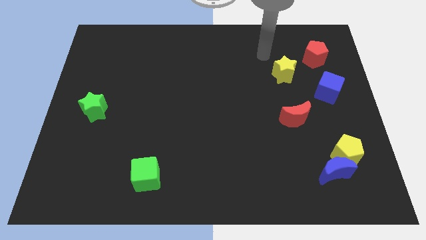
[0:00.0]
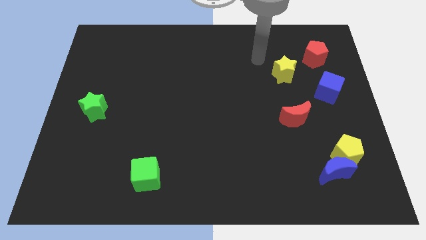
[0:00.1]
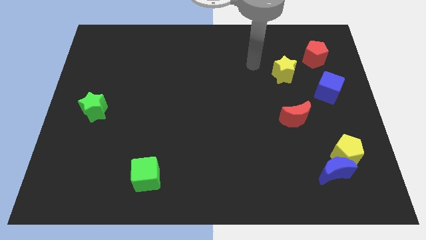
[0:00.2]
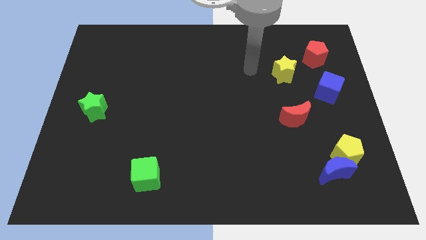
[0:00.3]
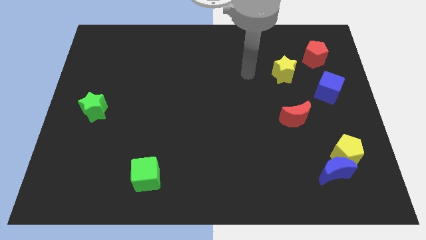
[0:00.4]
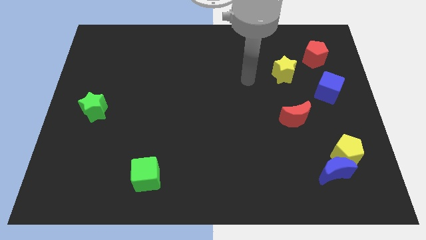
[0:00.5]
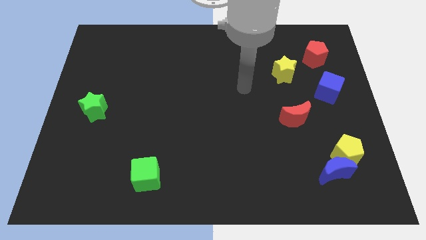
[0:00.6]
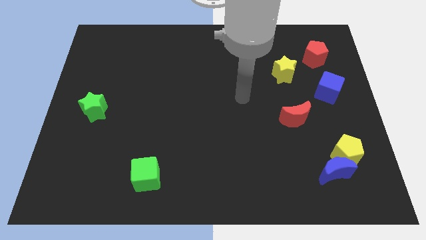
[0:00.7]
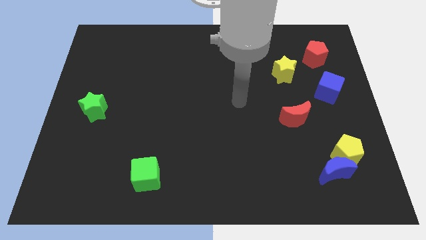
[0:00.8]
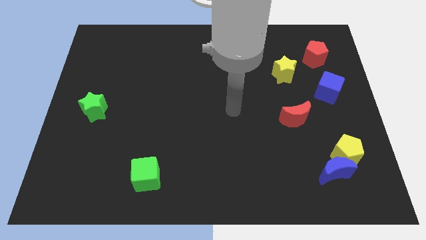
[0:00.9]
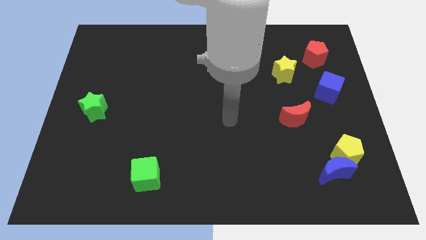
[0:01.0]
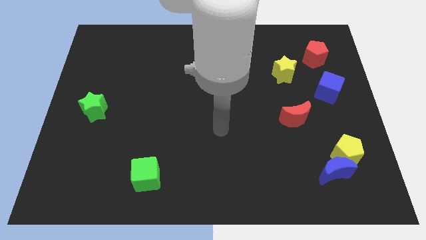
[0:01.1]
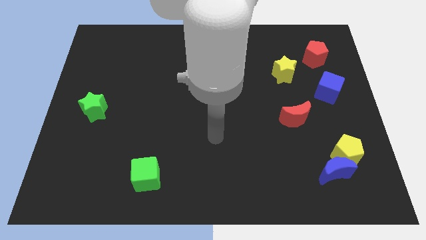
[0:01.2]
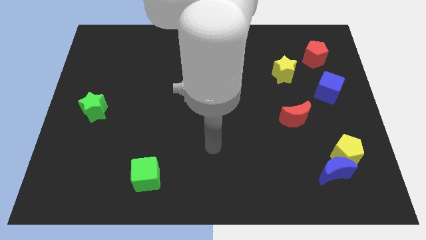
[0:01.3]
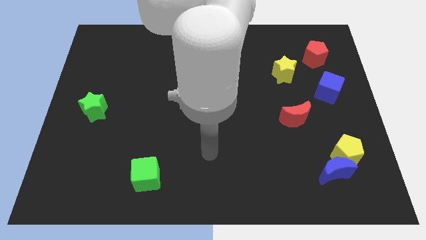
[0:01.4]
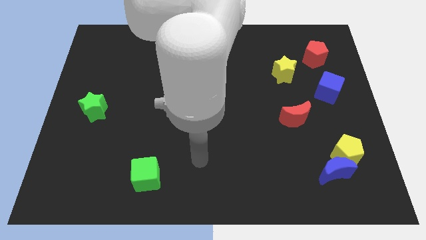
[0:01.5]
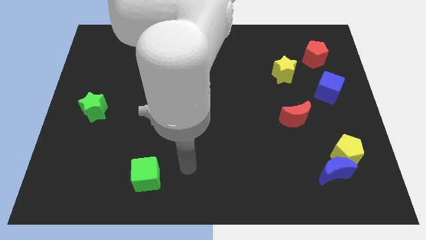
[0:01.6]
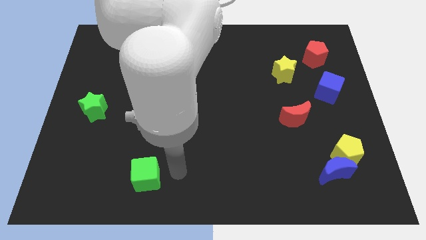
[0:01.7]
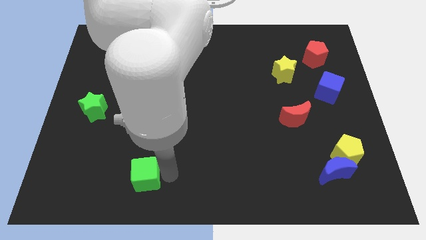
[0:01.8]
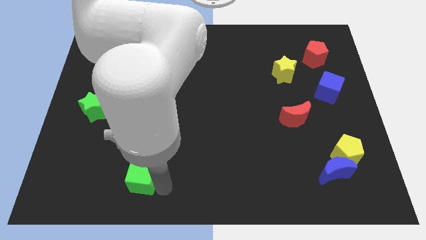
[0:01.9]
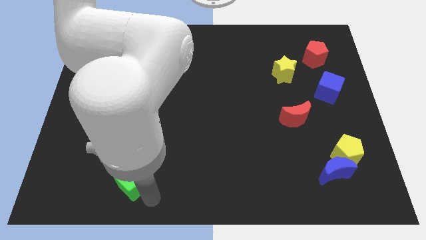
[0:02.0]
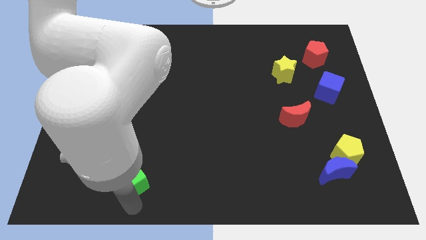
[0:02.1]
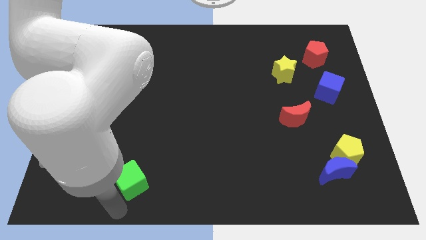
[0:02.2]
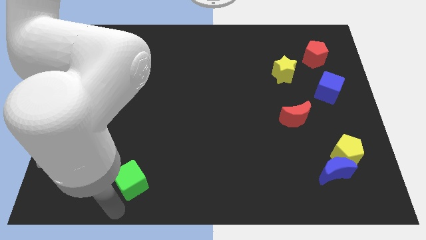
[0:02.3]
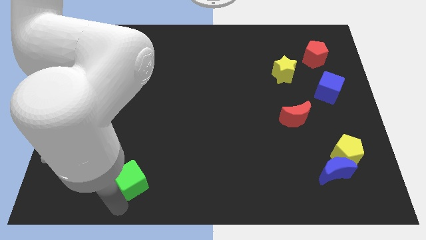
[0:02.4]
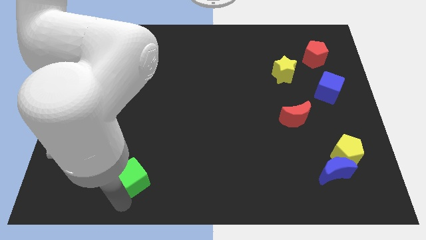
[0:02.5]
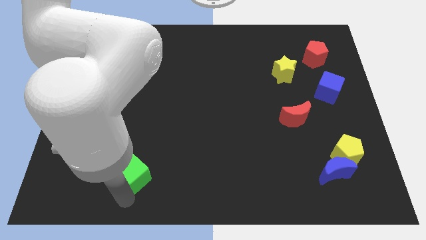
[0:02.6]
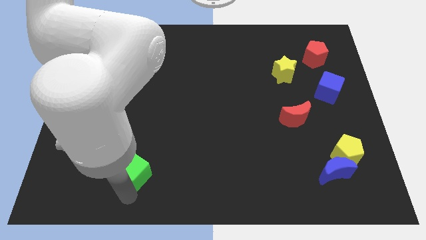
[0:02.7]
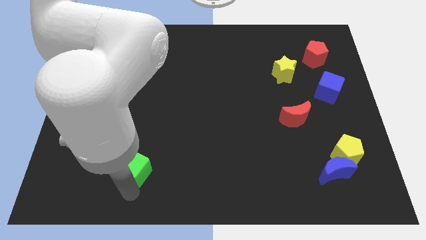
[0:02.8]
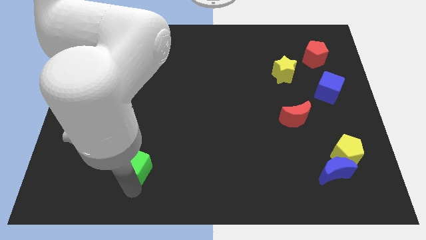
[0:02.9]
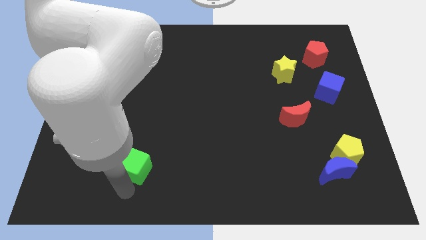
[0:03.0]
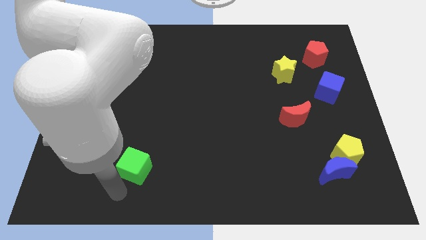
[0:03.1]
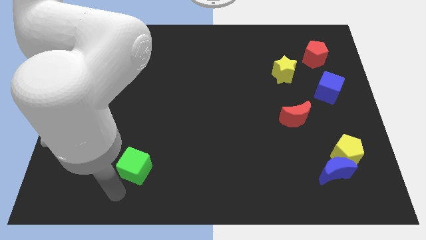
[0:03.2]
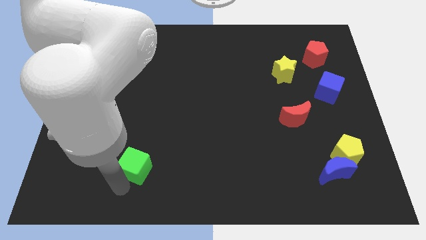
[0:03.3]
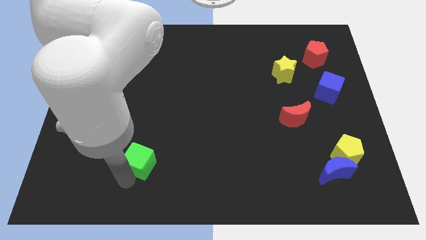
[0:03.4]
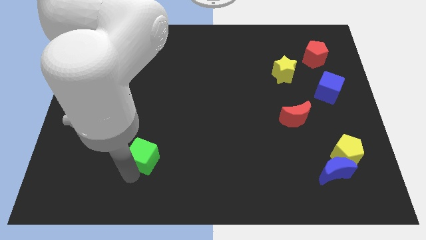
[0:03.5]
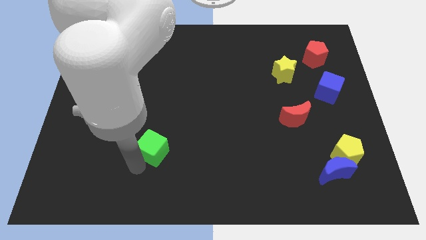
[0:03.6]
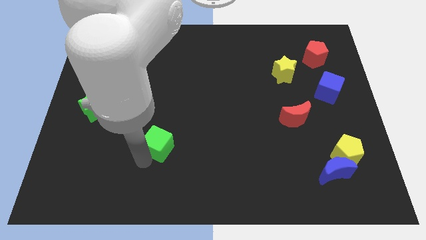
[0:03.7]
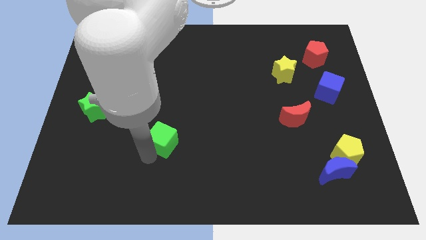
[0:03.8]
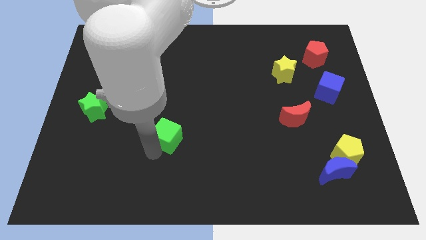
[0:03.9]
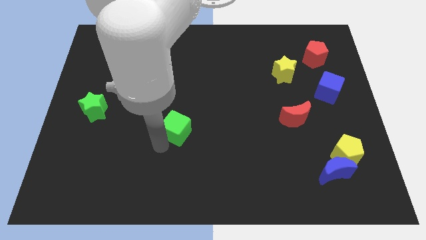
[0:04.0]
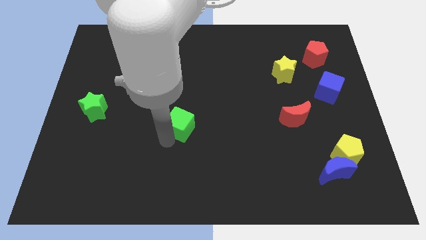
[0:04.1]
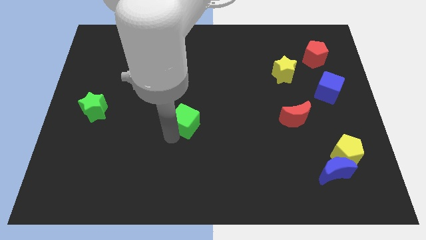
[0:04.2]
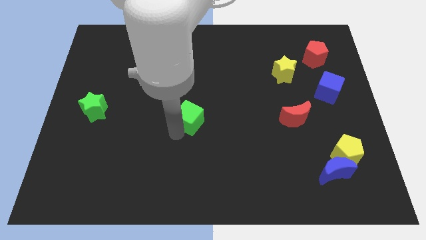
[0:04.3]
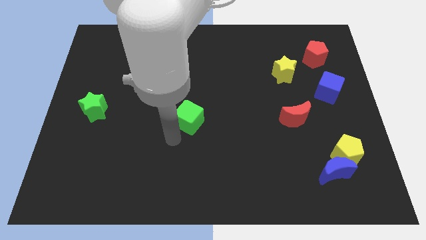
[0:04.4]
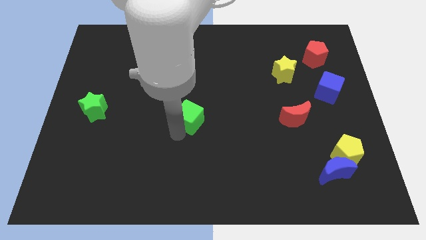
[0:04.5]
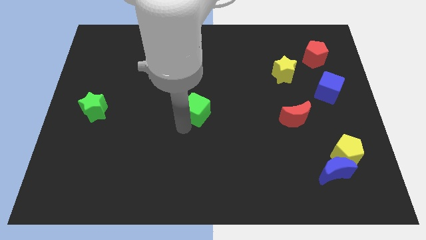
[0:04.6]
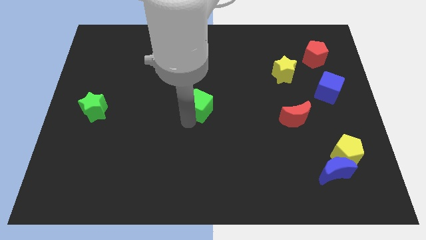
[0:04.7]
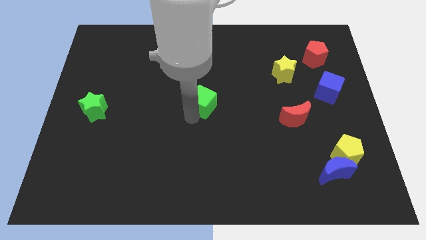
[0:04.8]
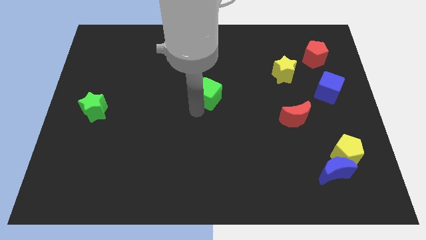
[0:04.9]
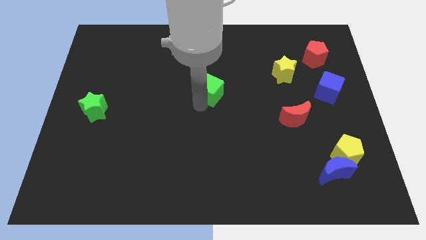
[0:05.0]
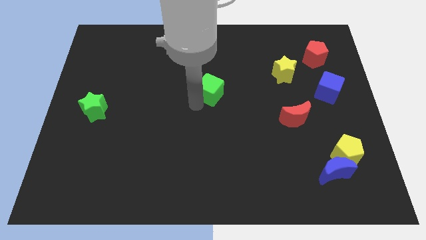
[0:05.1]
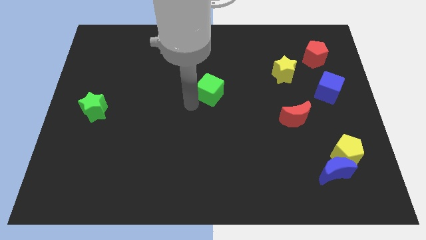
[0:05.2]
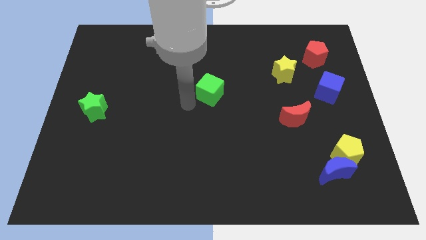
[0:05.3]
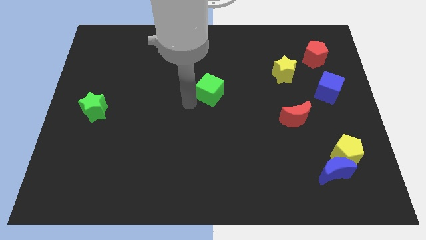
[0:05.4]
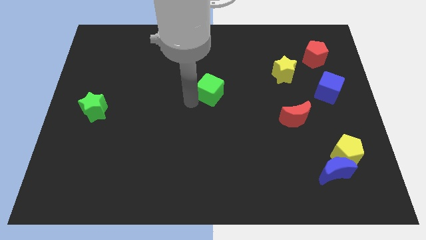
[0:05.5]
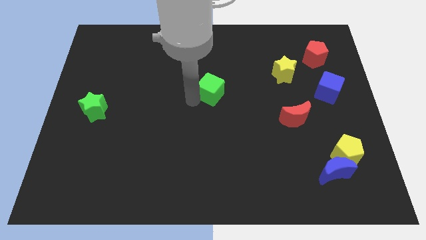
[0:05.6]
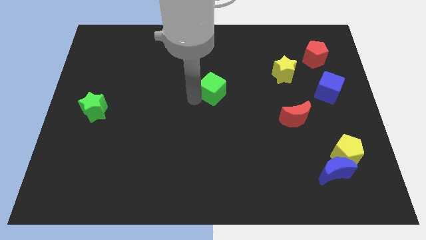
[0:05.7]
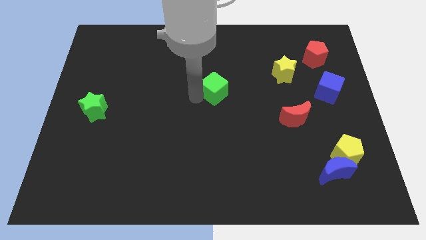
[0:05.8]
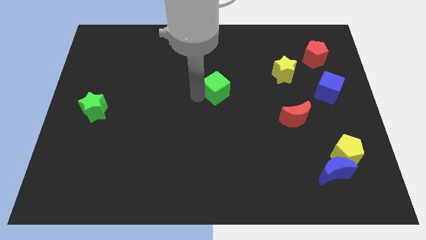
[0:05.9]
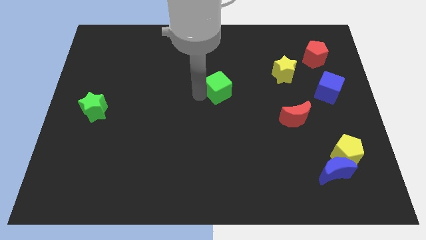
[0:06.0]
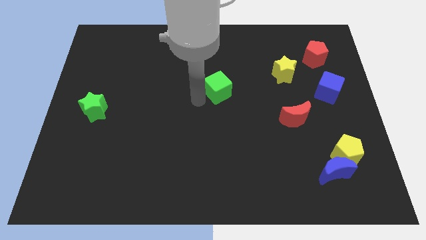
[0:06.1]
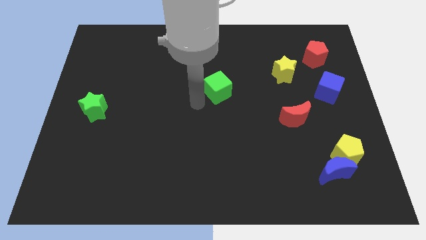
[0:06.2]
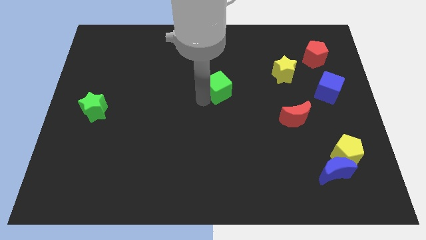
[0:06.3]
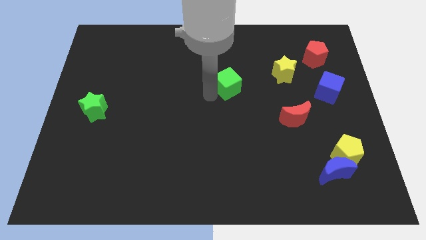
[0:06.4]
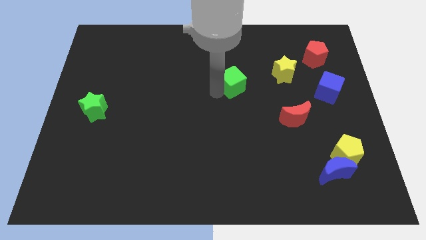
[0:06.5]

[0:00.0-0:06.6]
move the green cube just left of the yellow star

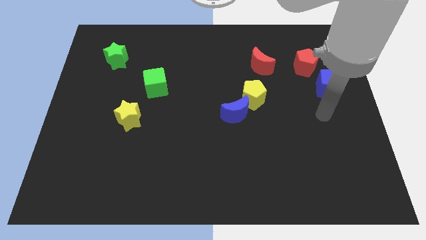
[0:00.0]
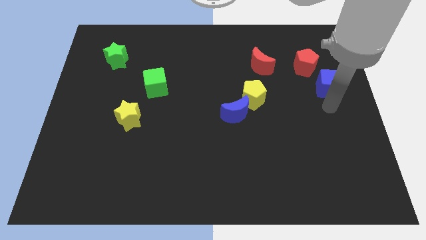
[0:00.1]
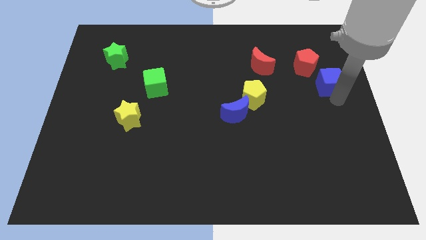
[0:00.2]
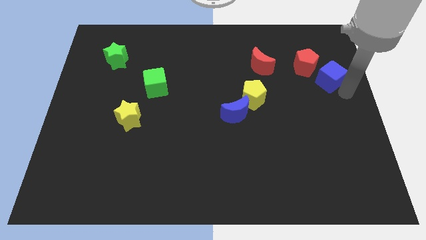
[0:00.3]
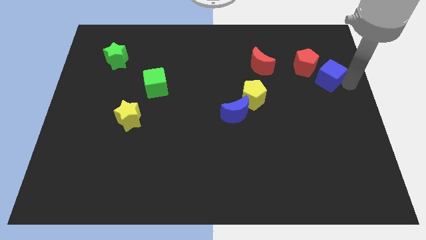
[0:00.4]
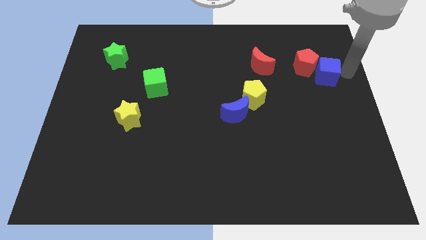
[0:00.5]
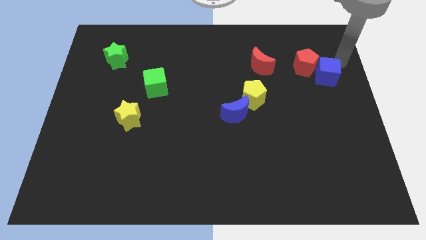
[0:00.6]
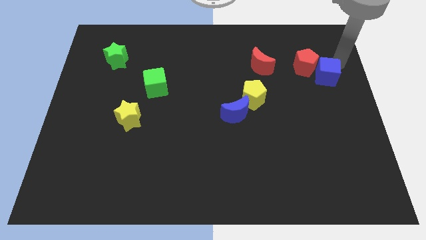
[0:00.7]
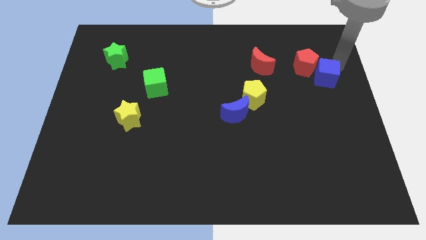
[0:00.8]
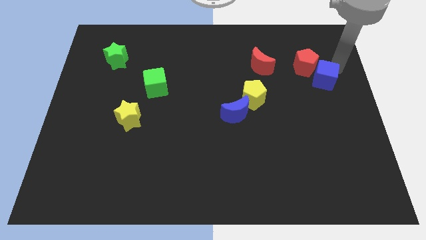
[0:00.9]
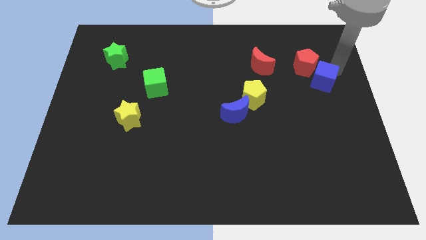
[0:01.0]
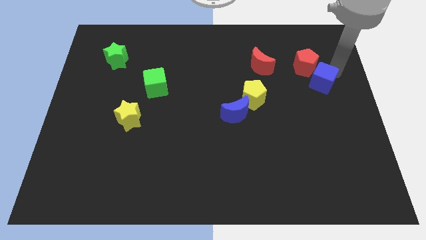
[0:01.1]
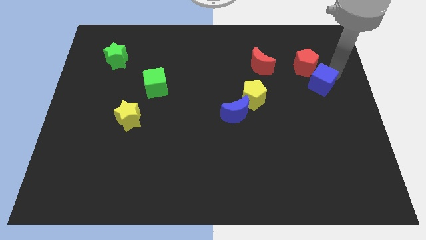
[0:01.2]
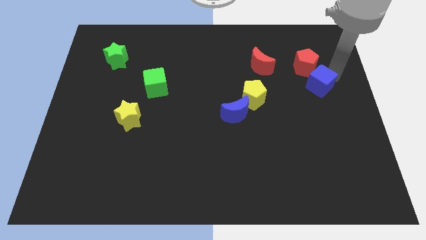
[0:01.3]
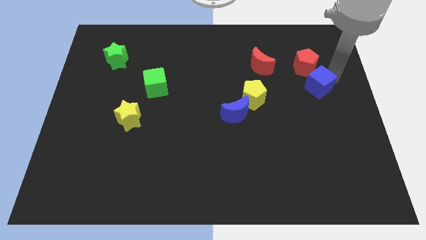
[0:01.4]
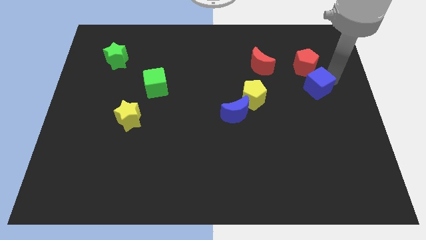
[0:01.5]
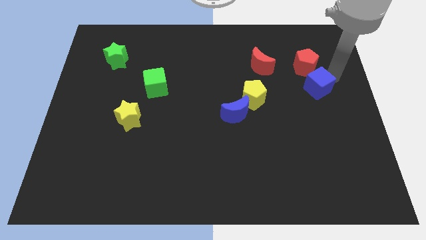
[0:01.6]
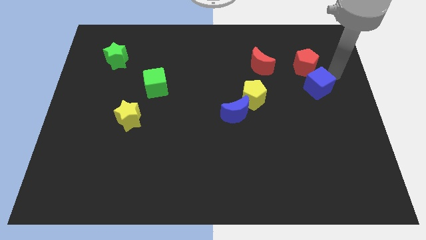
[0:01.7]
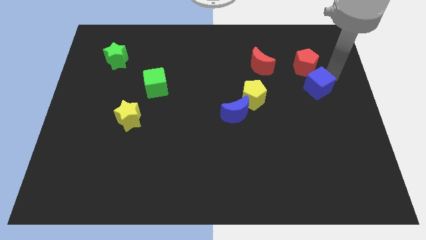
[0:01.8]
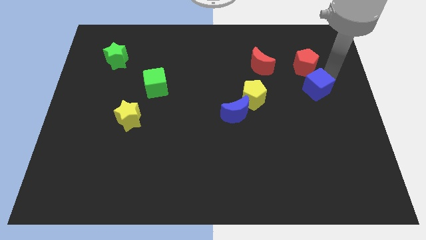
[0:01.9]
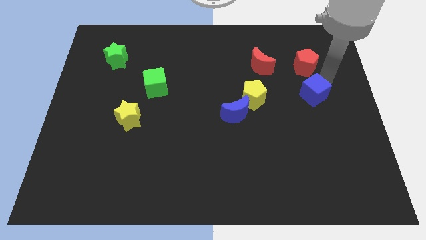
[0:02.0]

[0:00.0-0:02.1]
put the blue cube to the right side of the yellow pentagon
